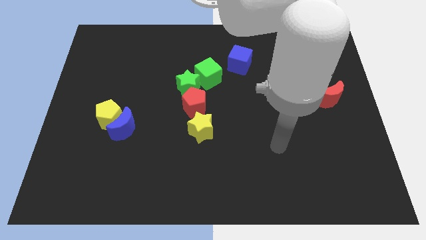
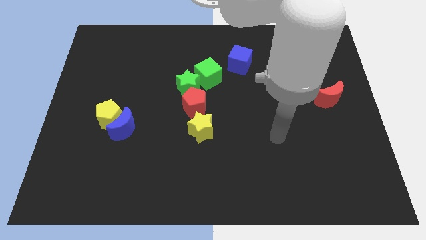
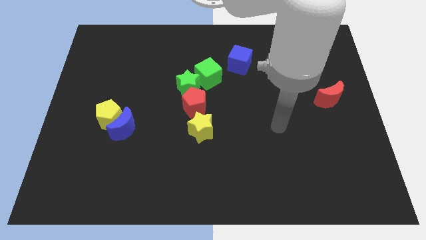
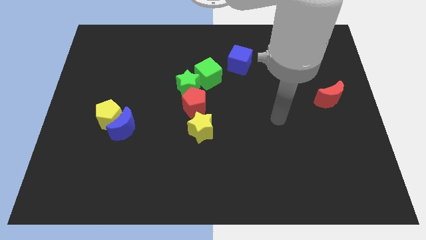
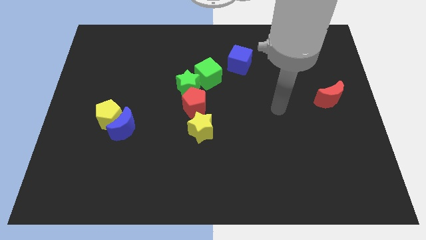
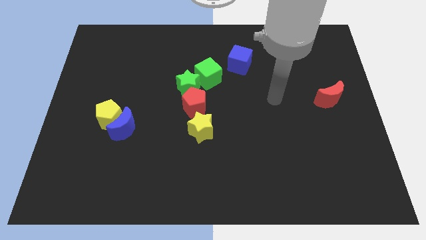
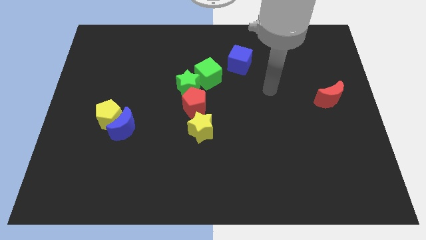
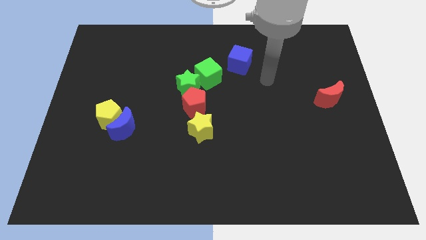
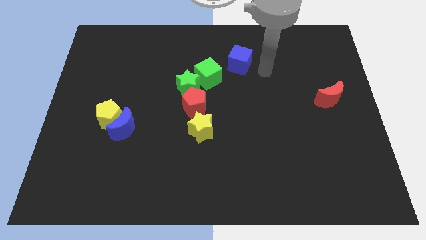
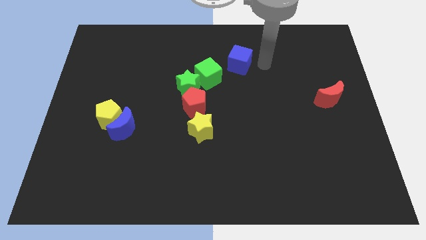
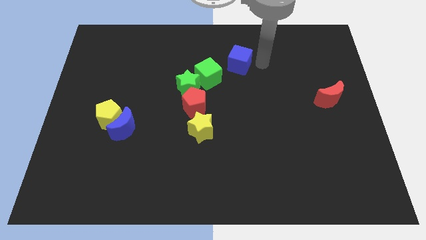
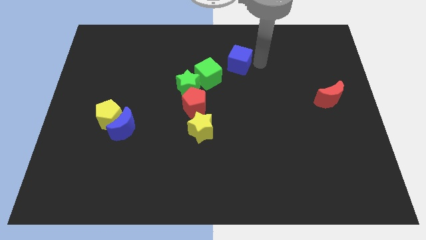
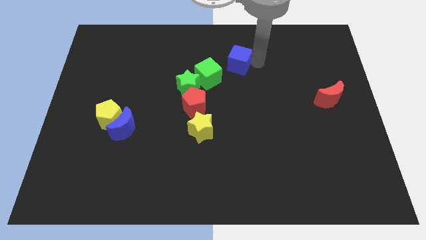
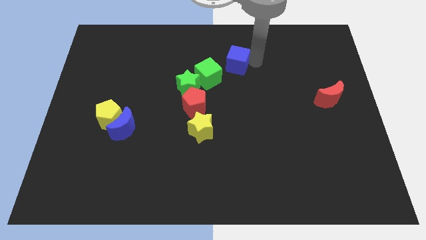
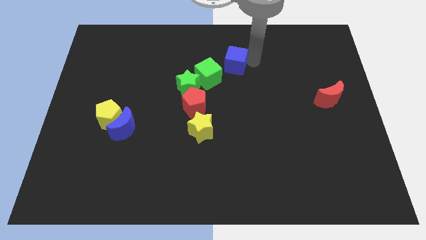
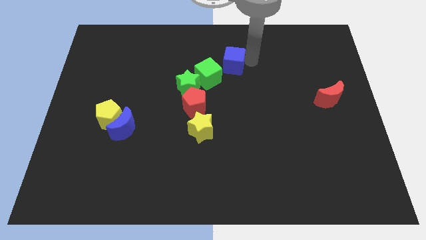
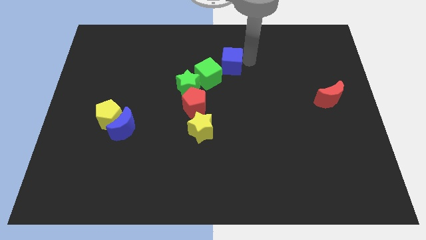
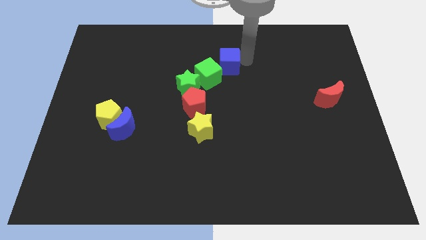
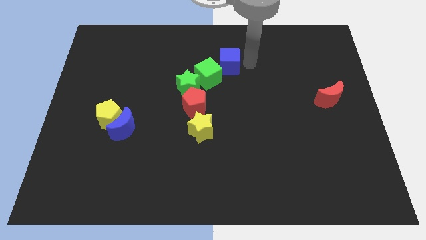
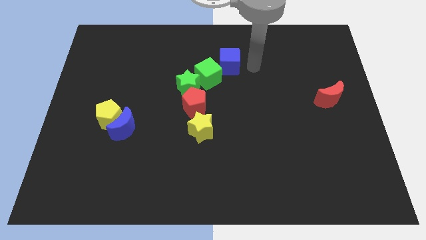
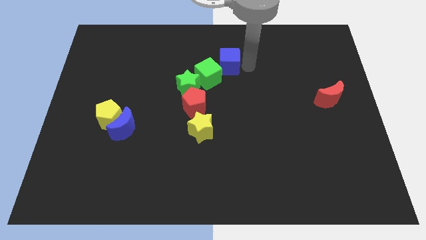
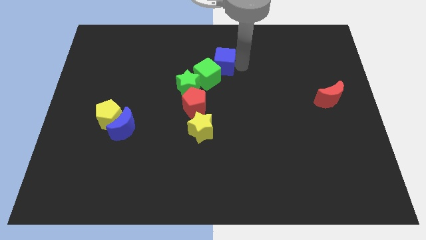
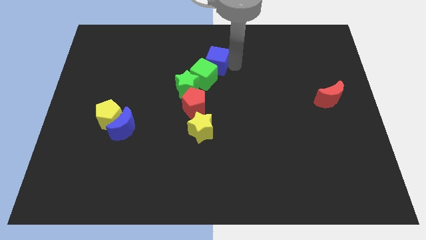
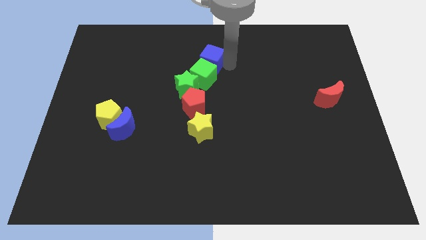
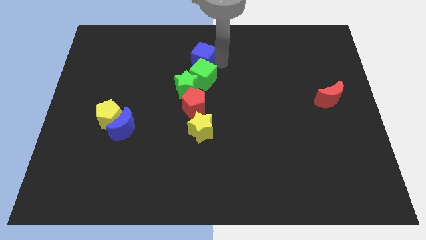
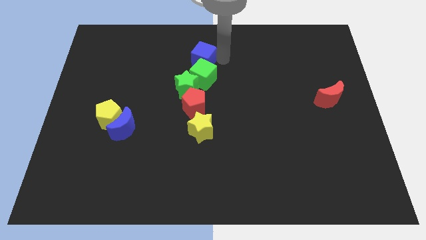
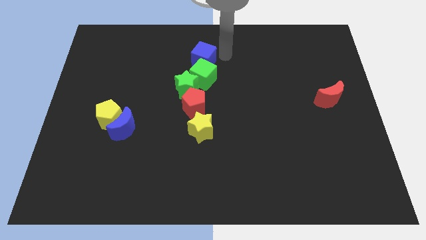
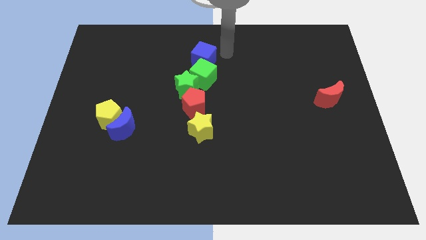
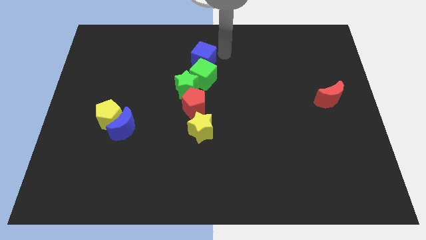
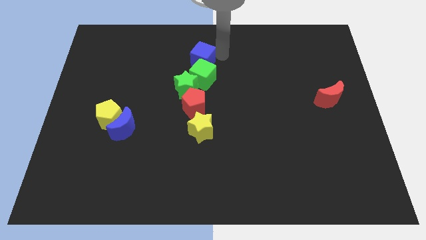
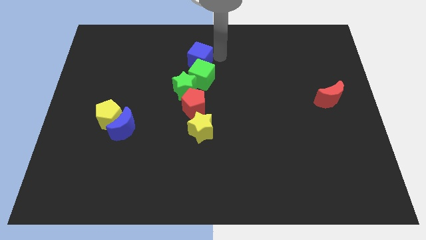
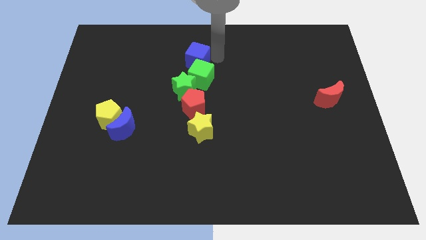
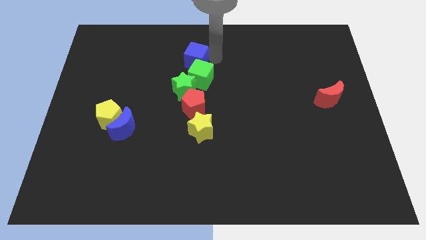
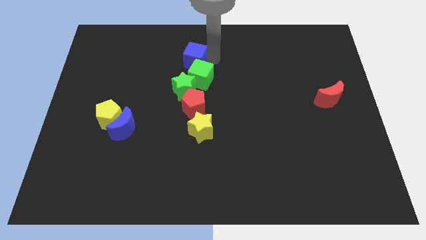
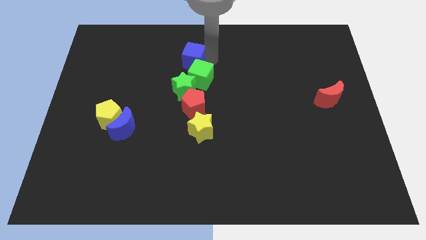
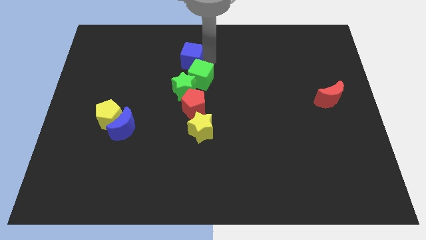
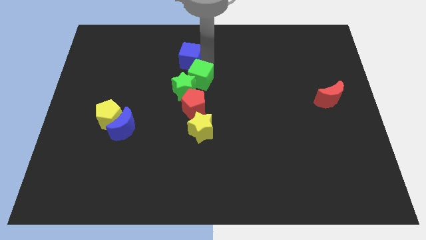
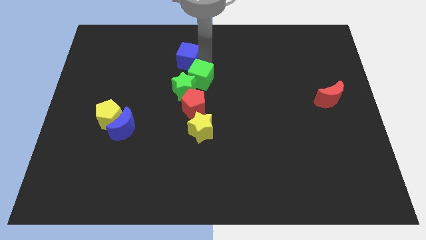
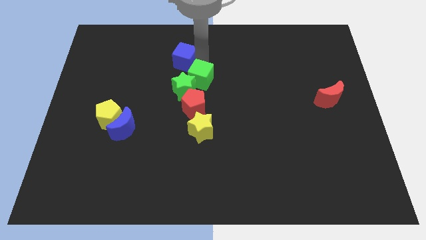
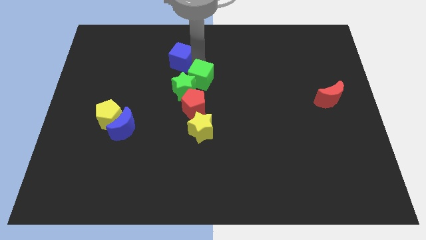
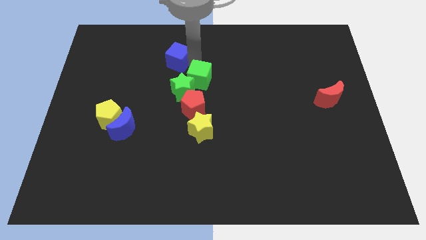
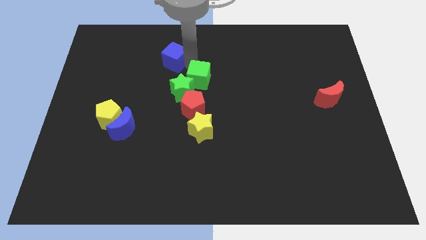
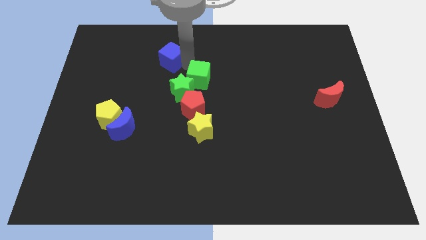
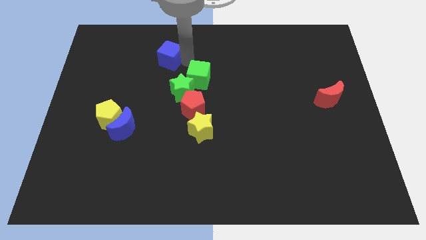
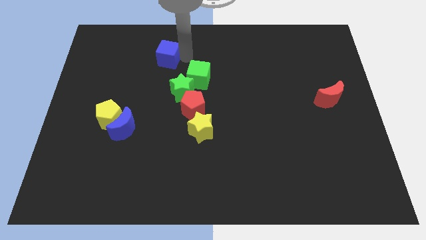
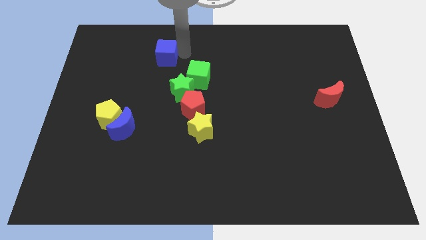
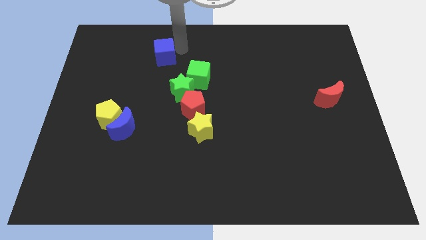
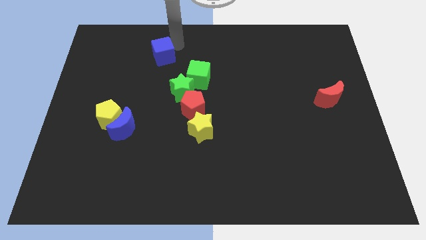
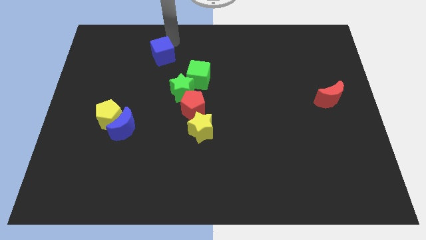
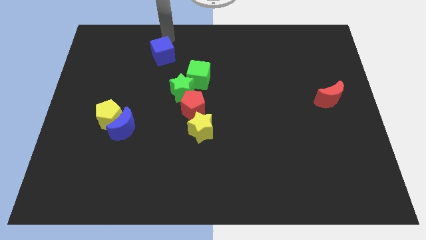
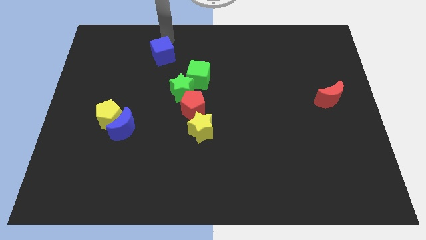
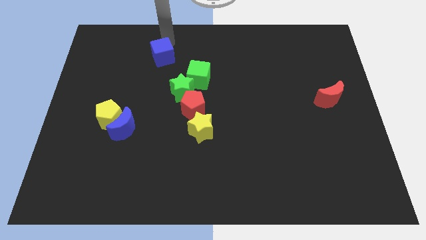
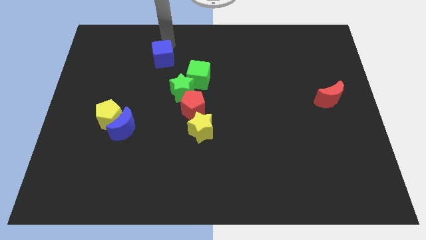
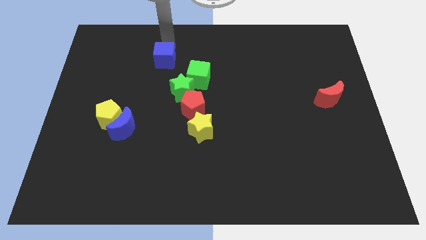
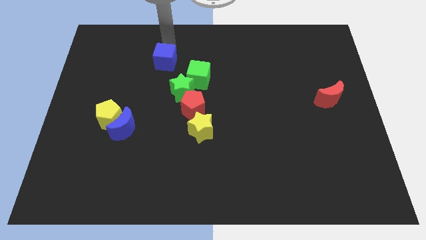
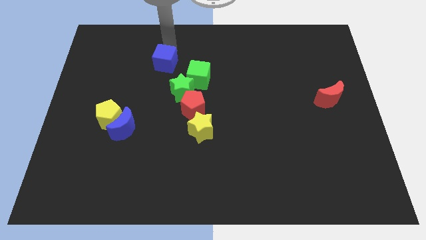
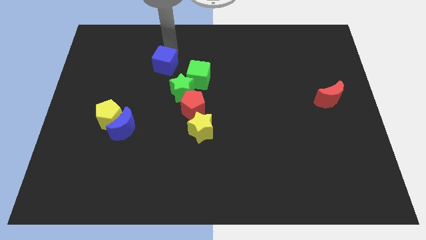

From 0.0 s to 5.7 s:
push the blue cube left of the green cube

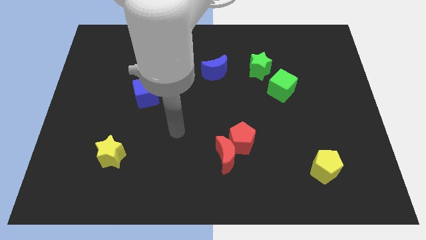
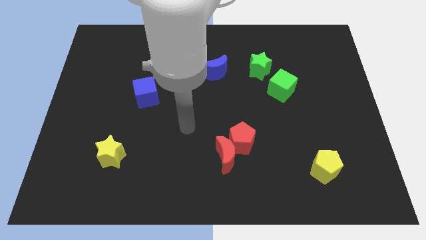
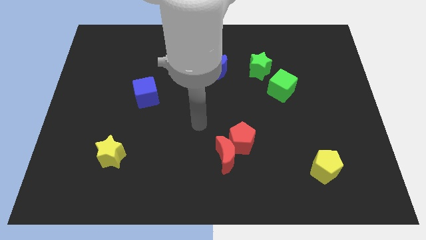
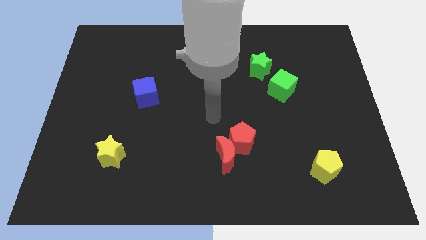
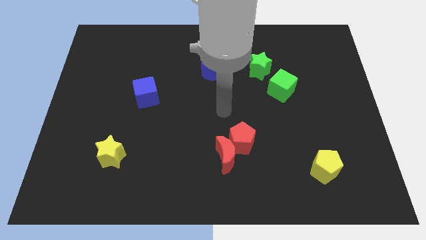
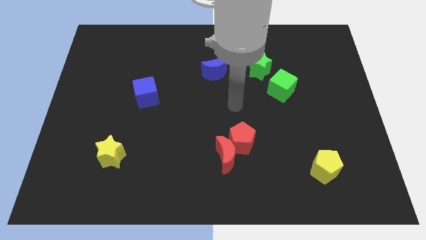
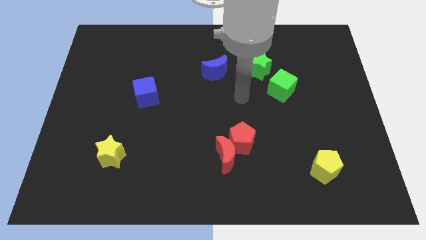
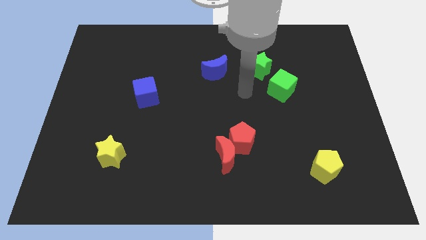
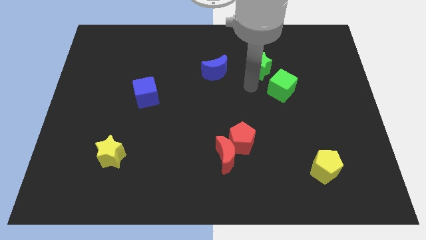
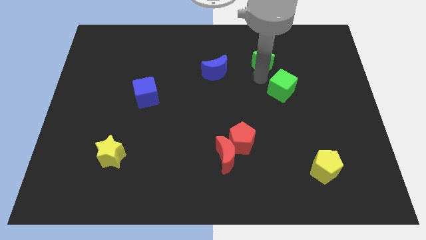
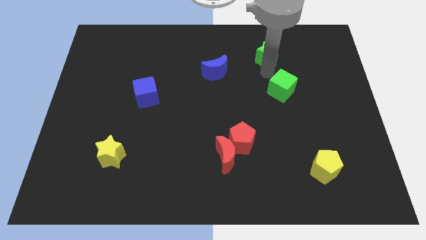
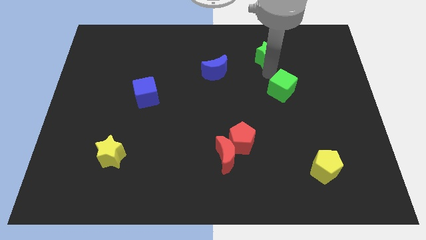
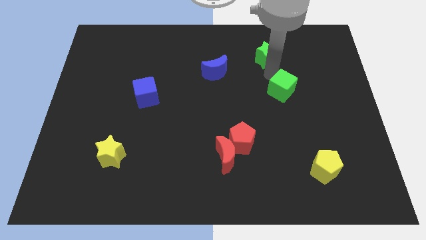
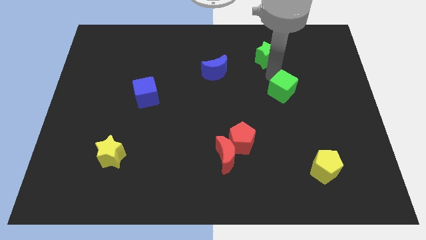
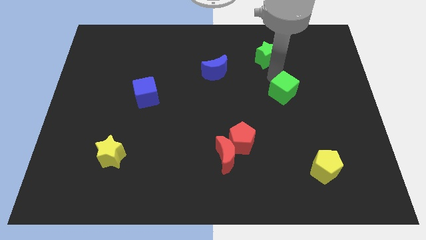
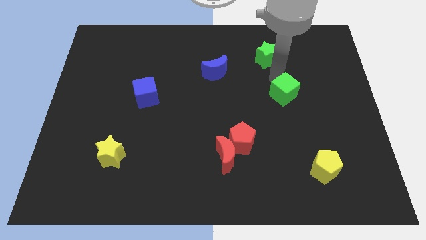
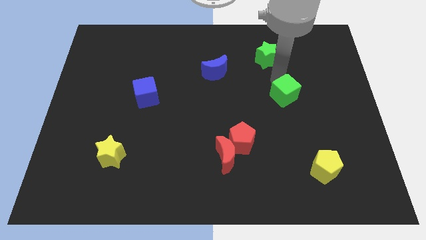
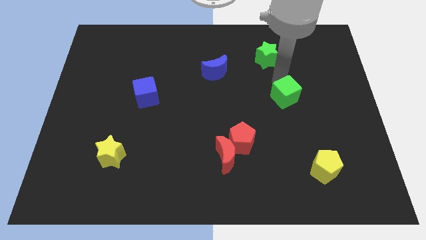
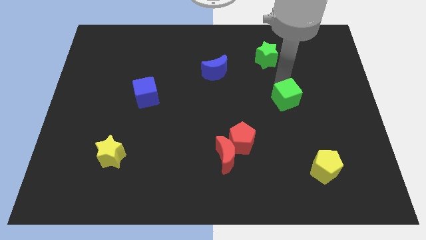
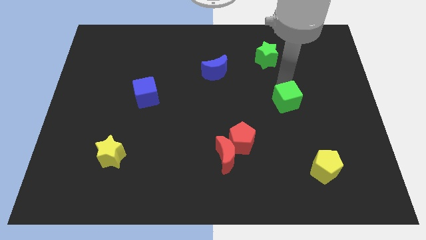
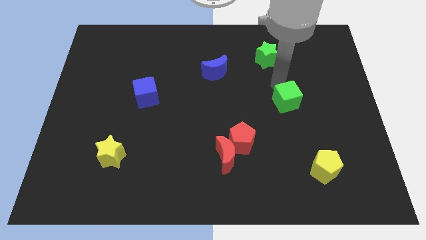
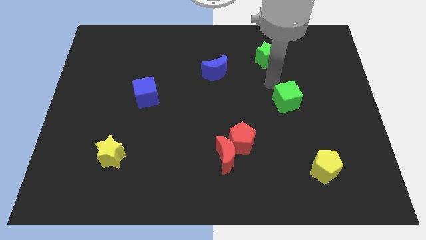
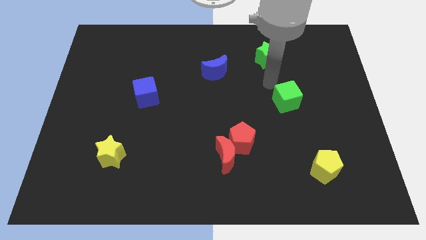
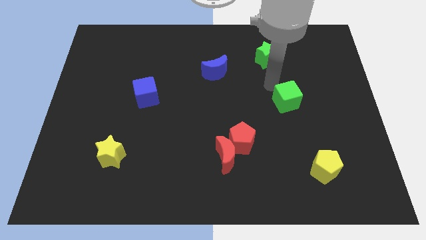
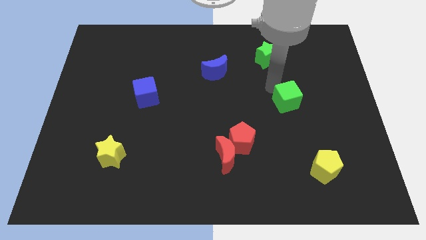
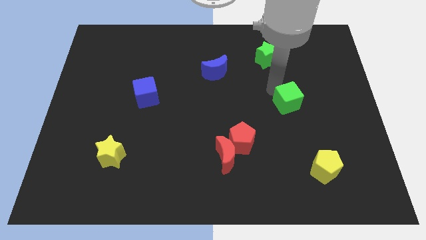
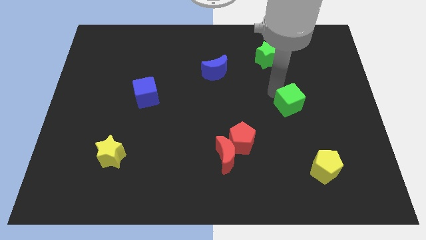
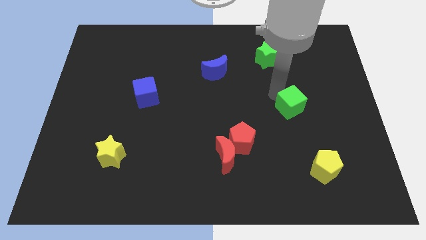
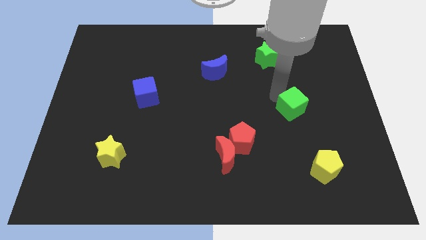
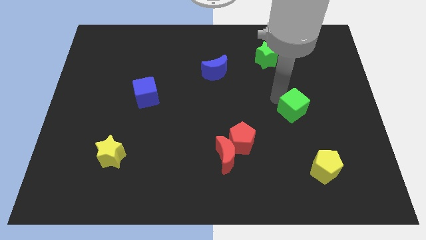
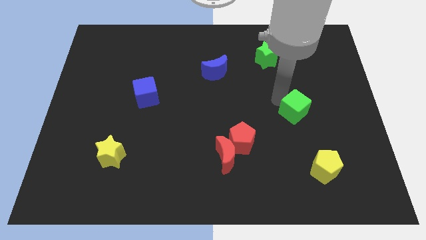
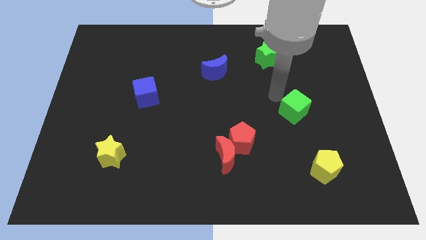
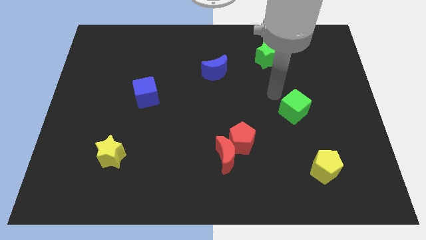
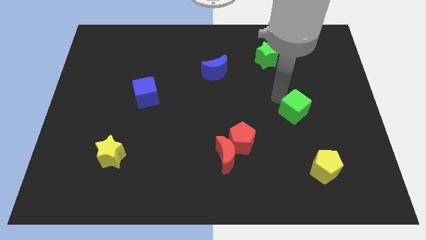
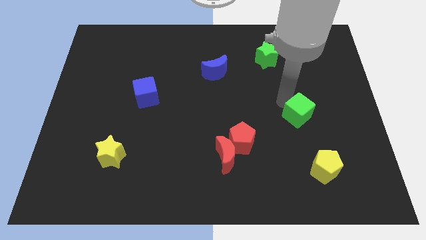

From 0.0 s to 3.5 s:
put the green cube above the yellow pentagon
